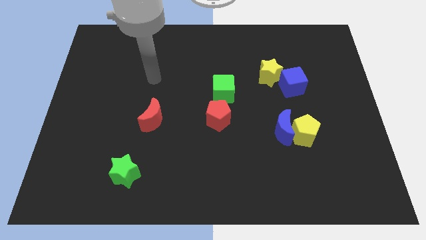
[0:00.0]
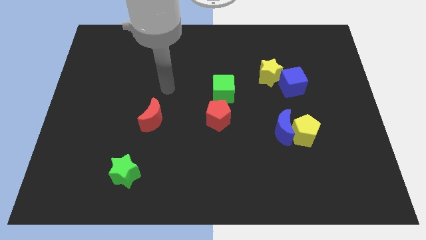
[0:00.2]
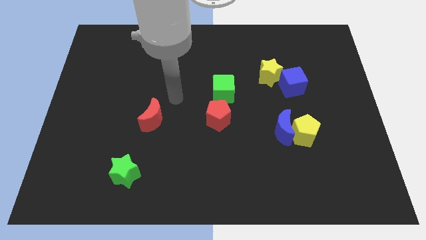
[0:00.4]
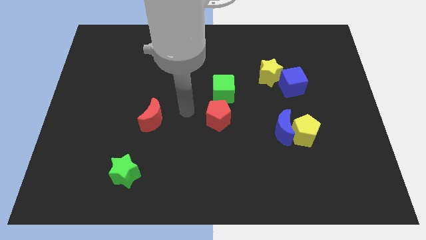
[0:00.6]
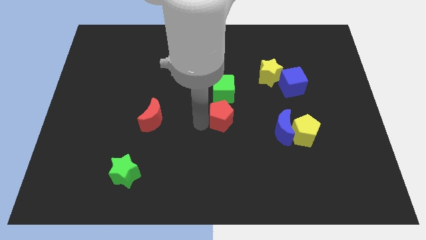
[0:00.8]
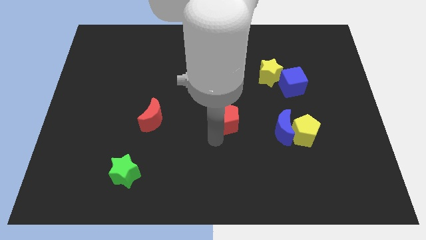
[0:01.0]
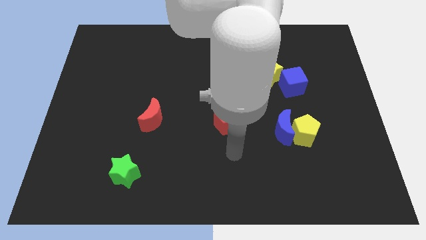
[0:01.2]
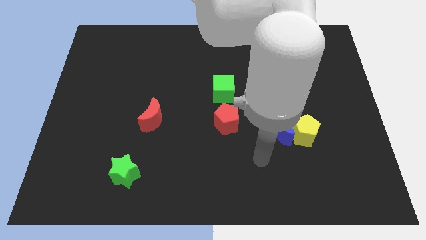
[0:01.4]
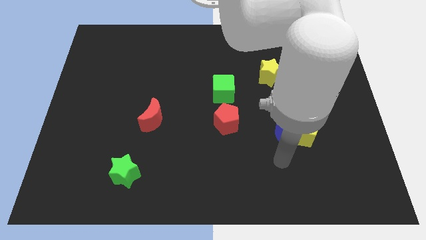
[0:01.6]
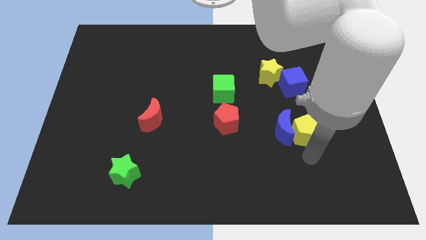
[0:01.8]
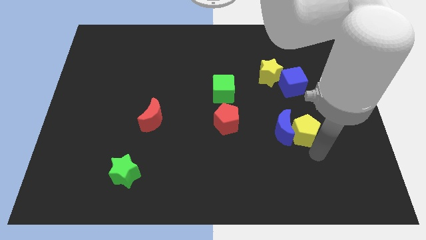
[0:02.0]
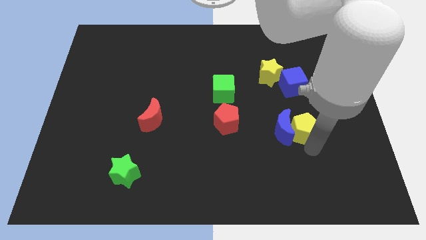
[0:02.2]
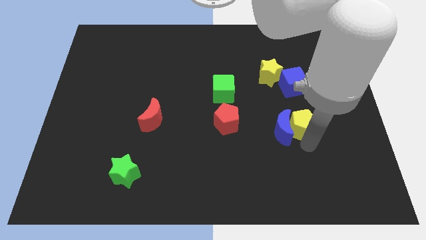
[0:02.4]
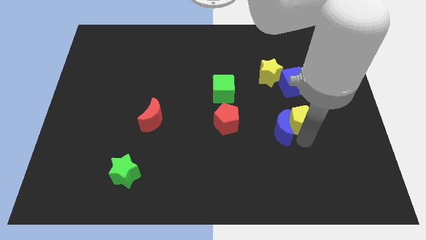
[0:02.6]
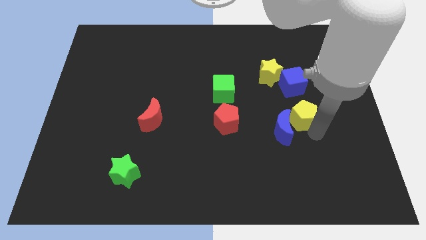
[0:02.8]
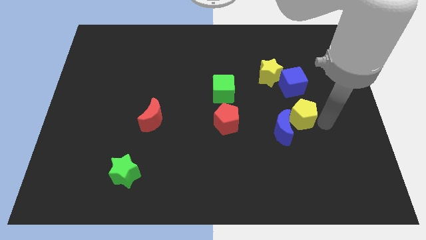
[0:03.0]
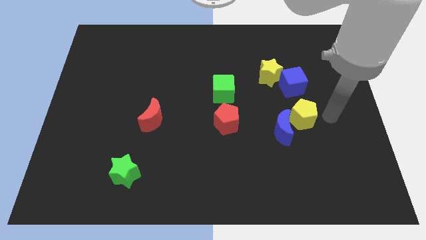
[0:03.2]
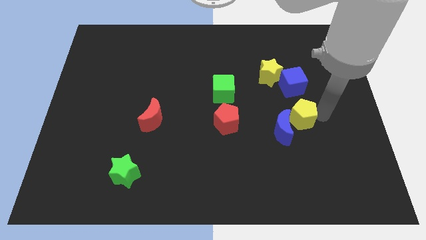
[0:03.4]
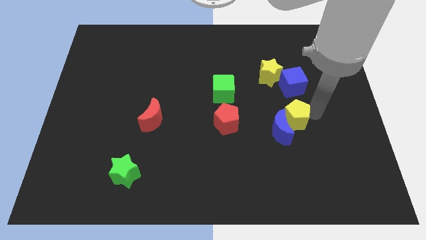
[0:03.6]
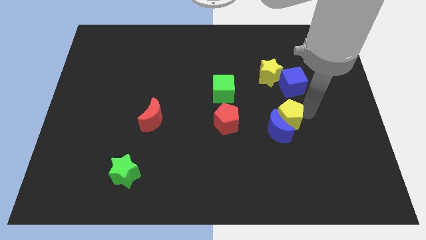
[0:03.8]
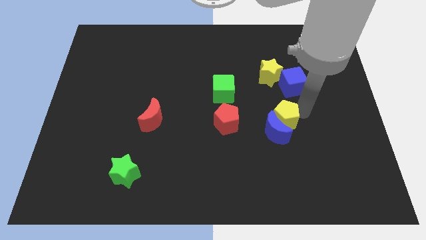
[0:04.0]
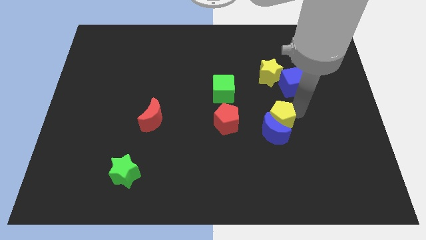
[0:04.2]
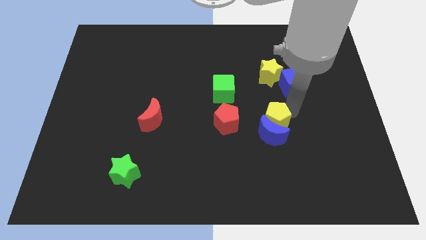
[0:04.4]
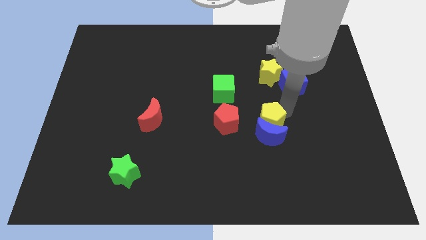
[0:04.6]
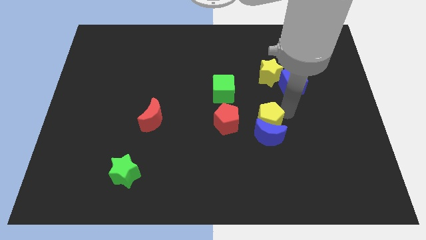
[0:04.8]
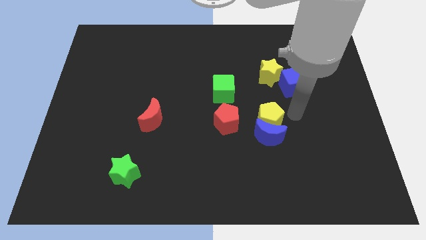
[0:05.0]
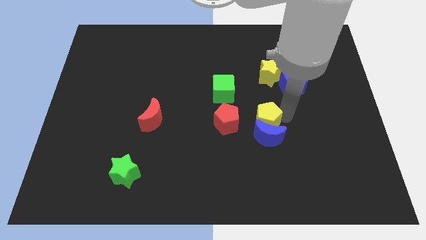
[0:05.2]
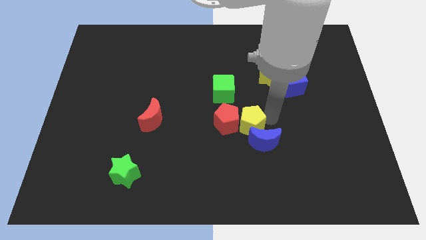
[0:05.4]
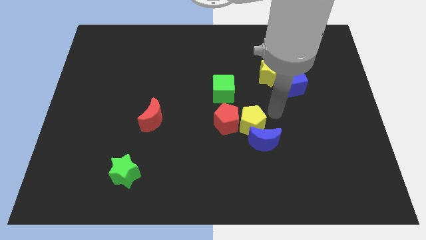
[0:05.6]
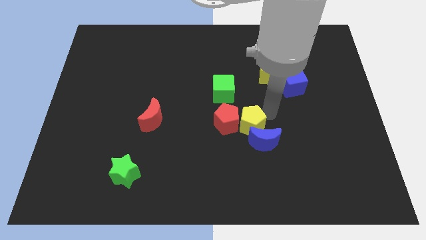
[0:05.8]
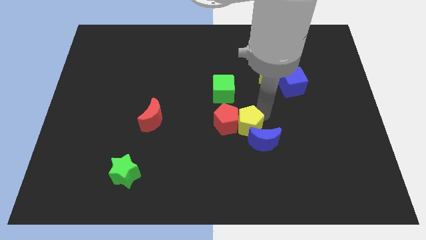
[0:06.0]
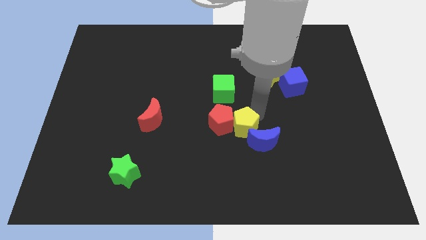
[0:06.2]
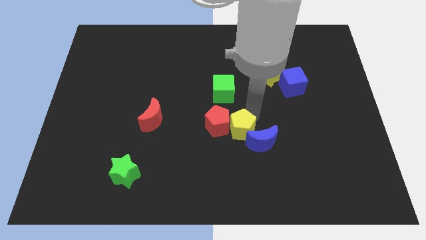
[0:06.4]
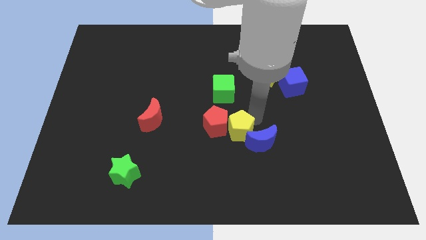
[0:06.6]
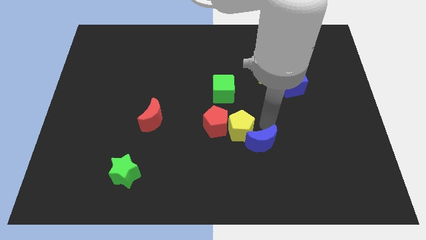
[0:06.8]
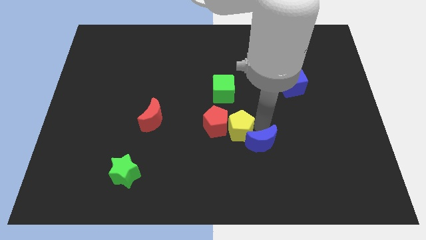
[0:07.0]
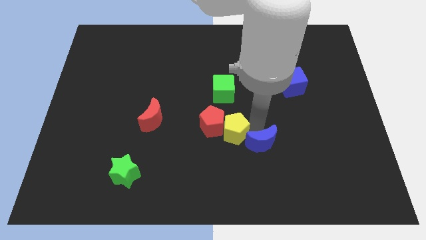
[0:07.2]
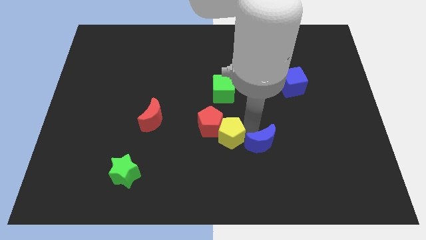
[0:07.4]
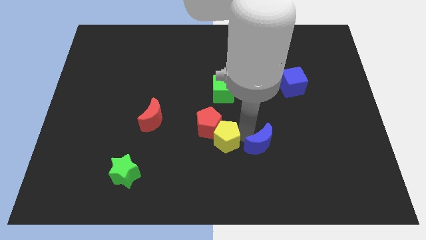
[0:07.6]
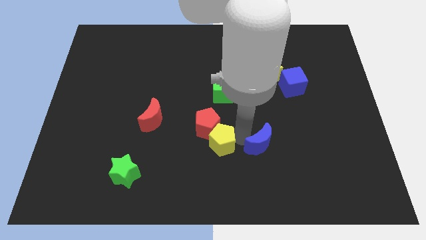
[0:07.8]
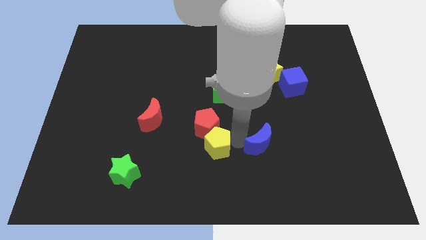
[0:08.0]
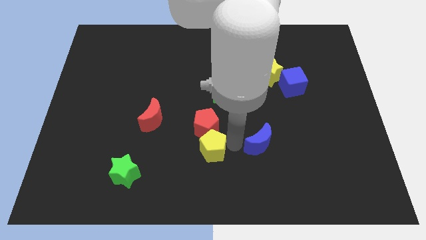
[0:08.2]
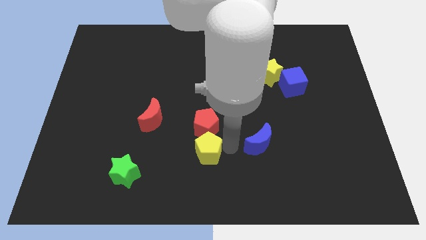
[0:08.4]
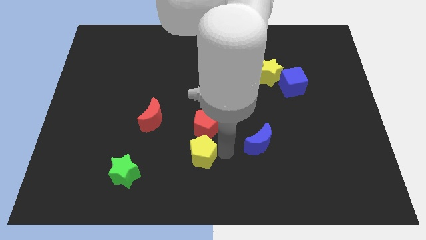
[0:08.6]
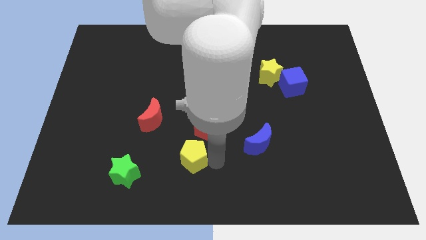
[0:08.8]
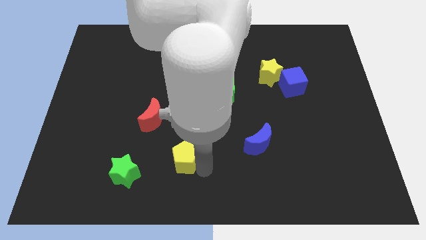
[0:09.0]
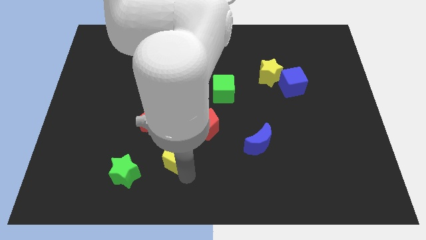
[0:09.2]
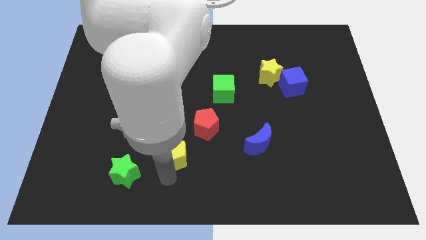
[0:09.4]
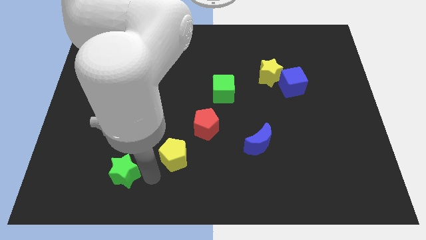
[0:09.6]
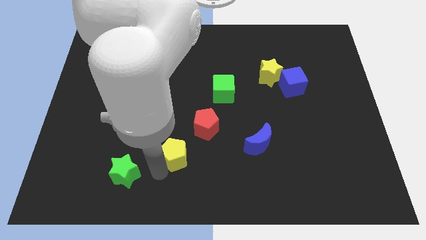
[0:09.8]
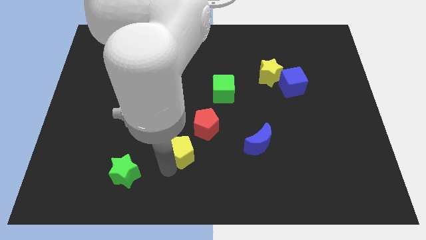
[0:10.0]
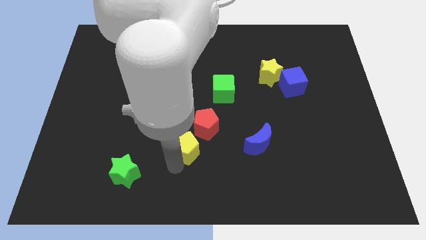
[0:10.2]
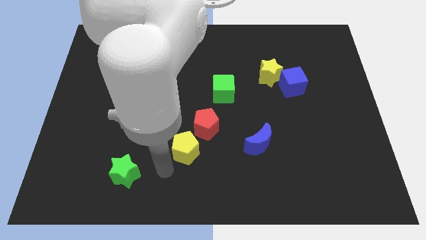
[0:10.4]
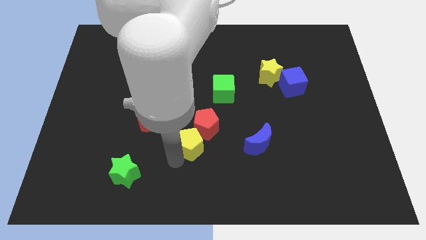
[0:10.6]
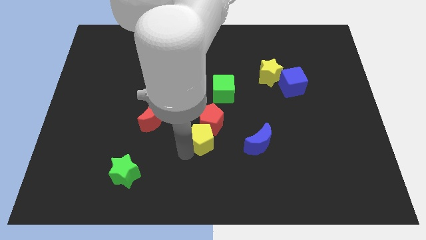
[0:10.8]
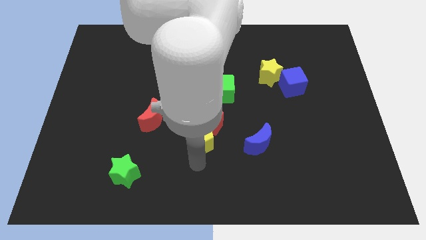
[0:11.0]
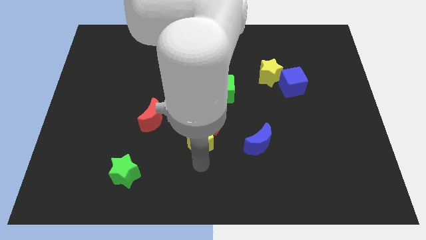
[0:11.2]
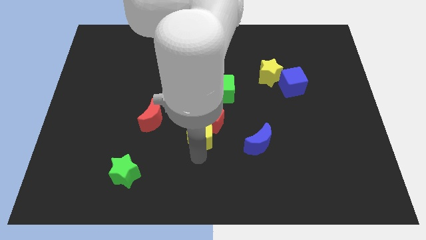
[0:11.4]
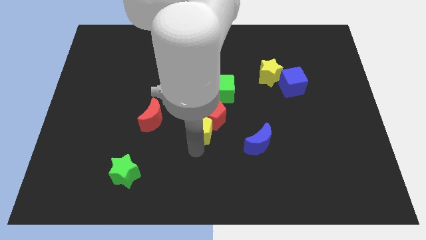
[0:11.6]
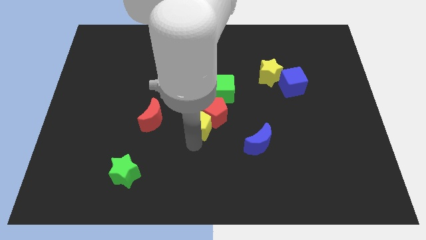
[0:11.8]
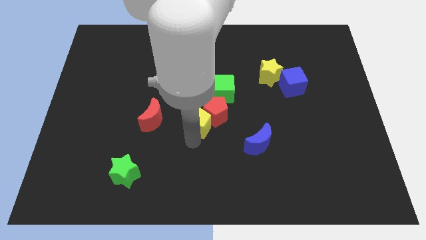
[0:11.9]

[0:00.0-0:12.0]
put the yellow pentagon to the bottom left of the green cube

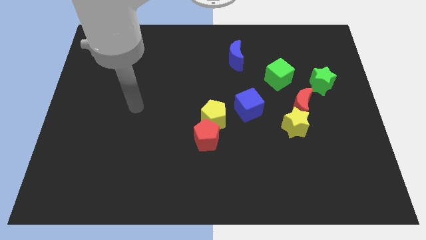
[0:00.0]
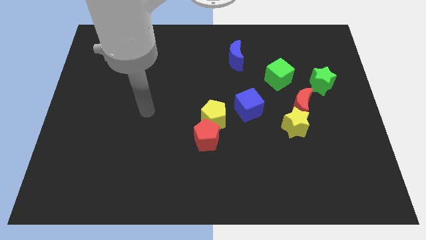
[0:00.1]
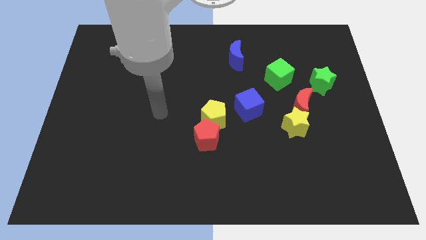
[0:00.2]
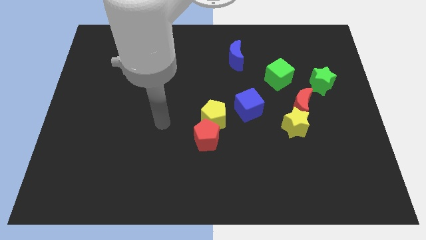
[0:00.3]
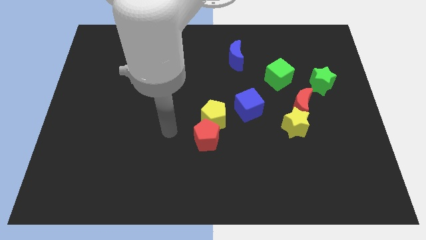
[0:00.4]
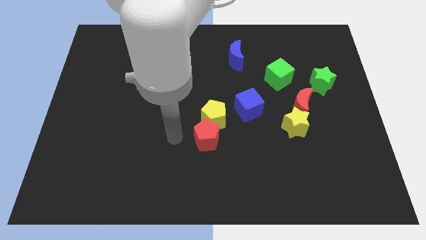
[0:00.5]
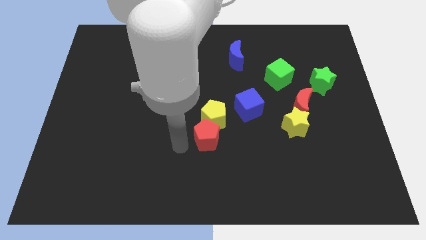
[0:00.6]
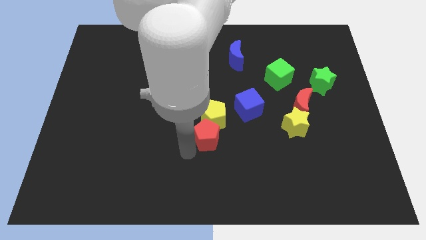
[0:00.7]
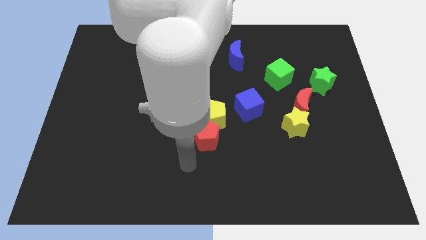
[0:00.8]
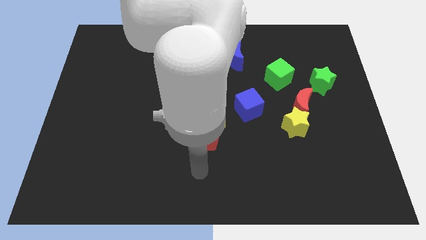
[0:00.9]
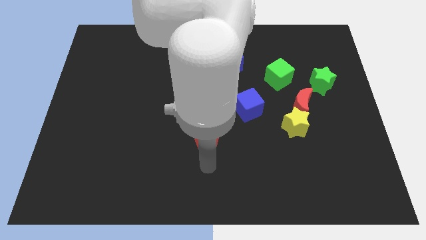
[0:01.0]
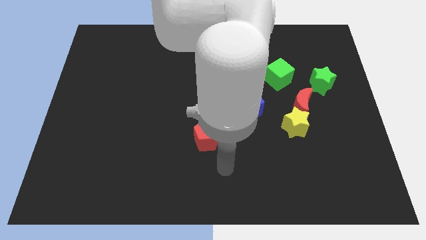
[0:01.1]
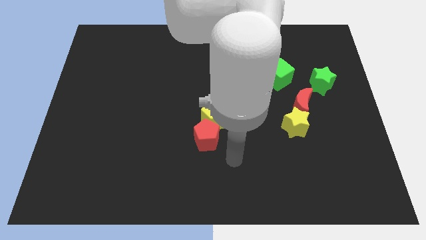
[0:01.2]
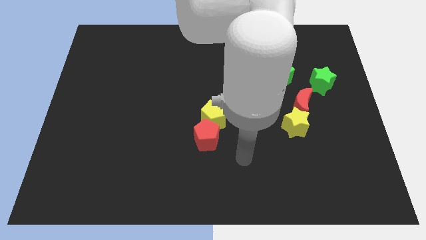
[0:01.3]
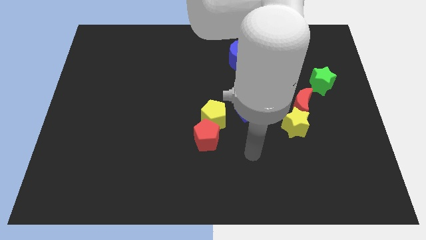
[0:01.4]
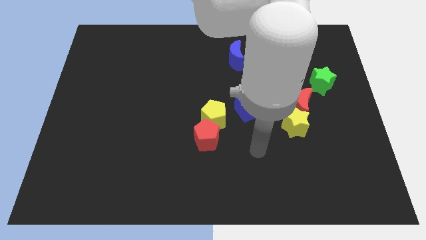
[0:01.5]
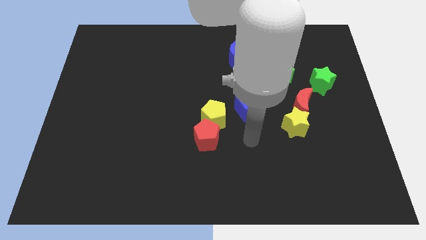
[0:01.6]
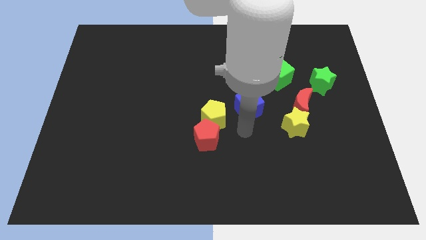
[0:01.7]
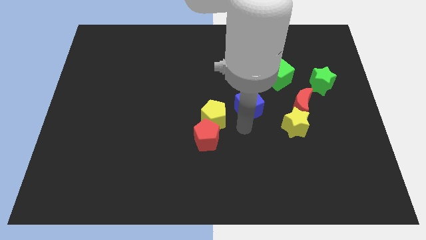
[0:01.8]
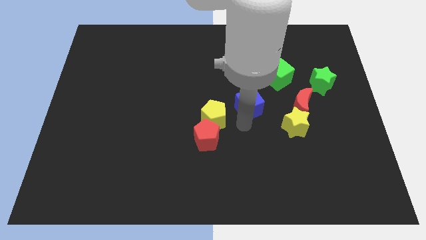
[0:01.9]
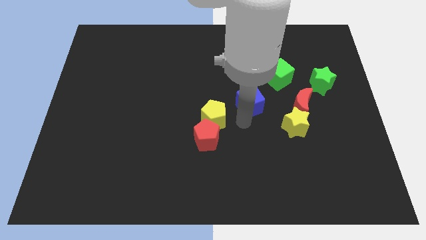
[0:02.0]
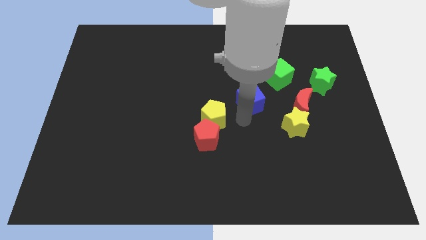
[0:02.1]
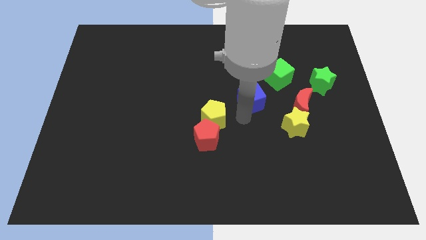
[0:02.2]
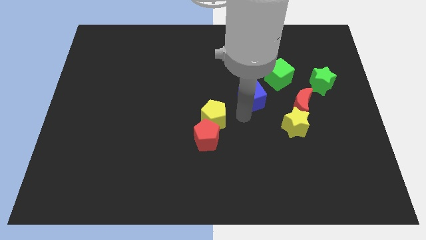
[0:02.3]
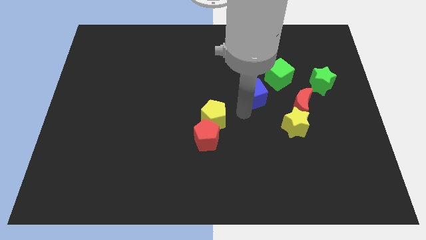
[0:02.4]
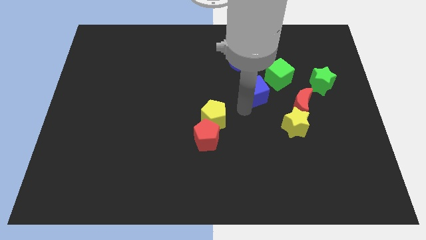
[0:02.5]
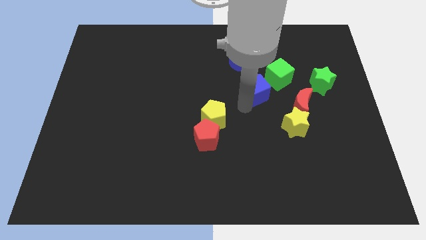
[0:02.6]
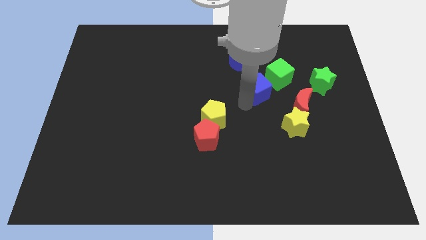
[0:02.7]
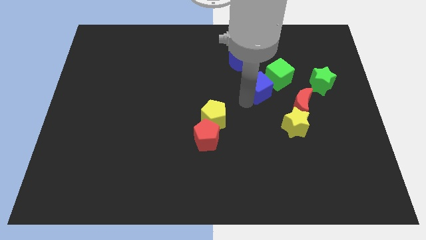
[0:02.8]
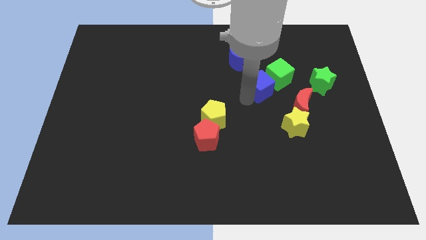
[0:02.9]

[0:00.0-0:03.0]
put the blue cube diagonally down and to the right of the blue moon
